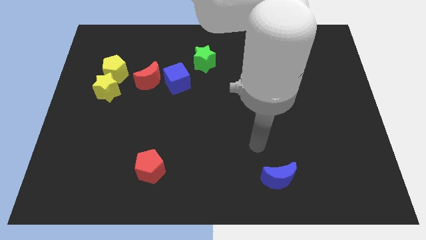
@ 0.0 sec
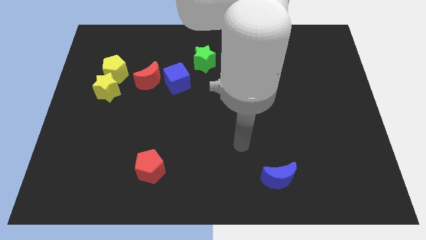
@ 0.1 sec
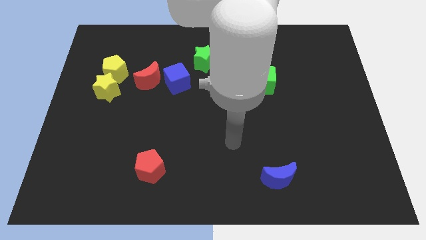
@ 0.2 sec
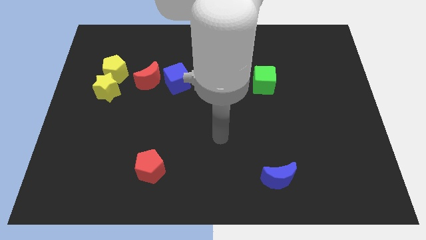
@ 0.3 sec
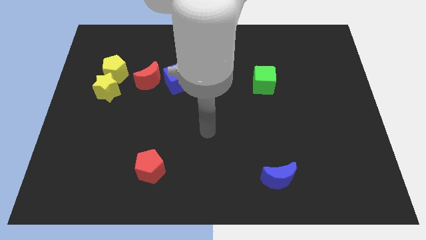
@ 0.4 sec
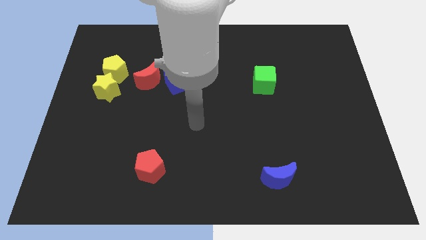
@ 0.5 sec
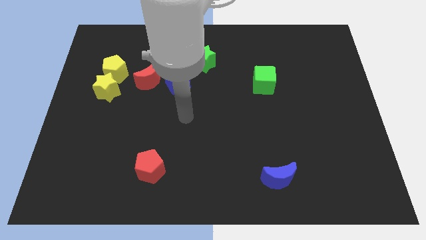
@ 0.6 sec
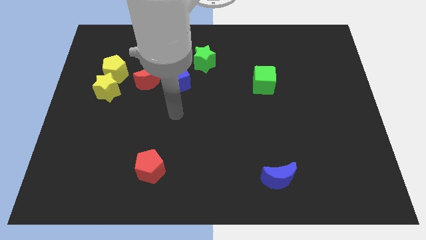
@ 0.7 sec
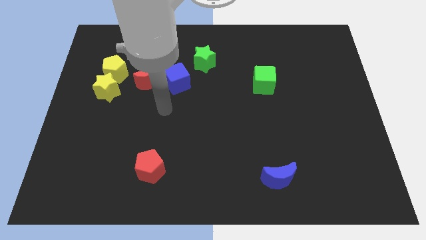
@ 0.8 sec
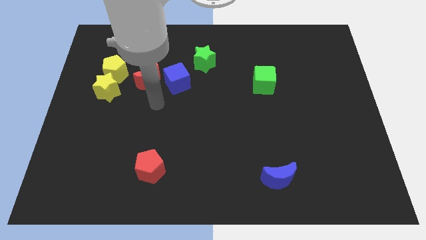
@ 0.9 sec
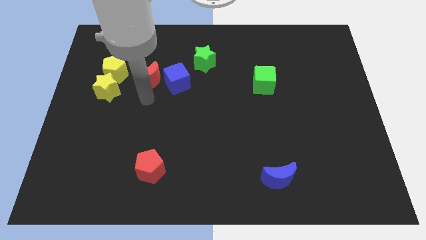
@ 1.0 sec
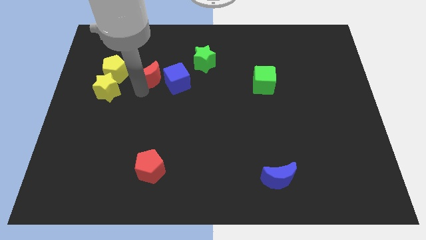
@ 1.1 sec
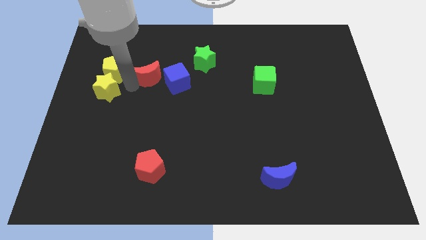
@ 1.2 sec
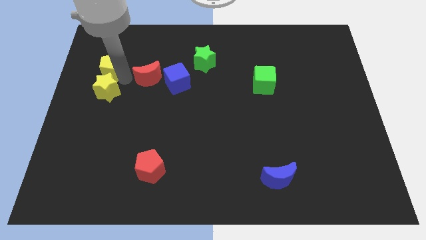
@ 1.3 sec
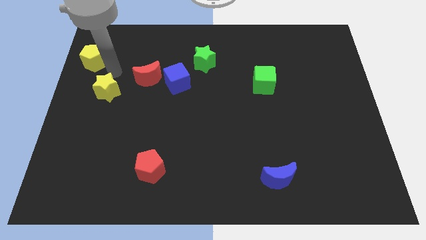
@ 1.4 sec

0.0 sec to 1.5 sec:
move the yellow star away from the yellow pentagon

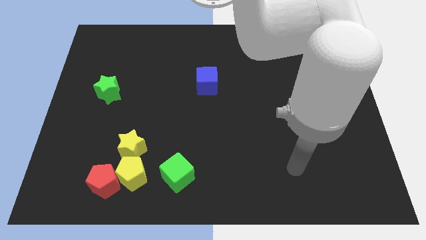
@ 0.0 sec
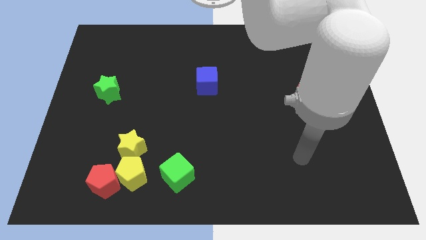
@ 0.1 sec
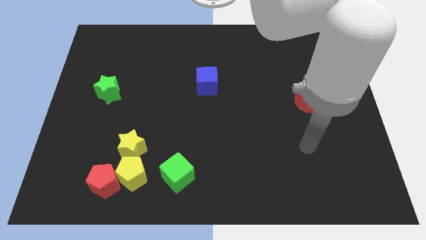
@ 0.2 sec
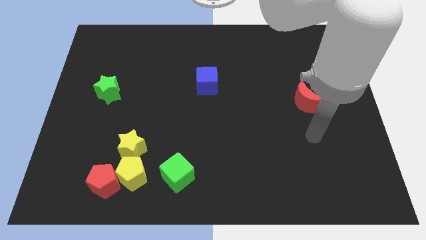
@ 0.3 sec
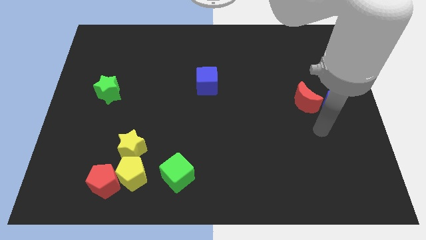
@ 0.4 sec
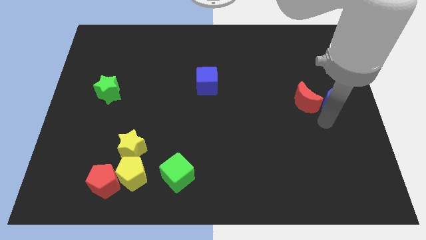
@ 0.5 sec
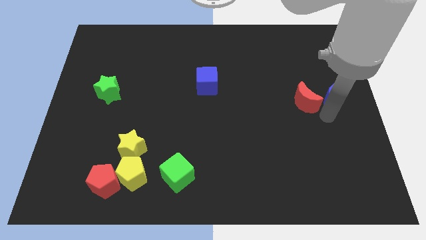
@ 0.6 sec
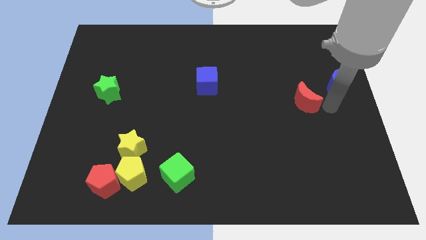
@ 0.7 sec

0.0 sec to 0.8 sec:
move the red moon away from the blue moon

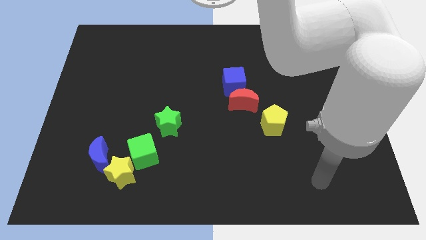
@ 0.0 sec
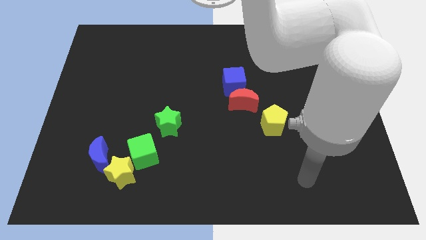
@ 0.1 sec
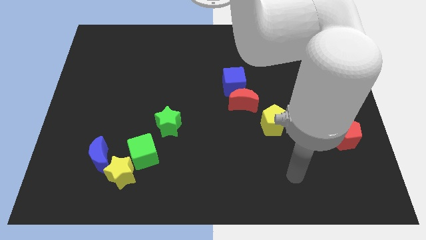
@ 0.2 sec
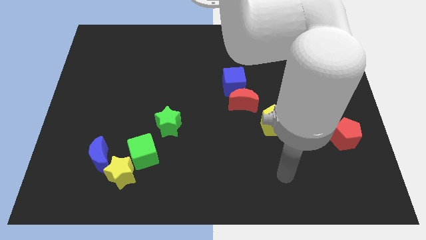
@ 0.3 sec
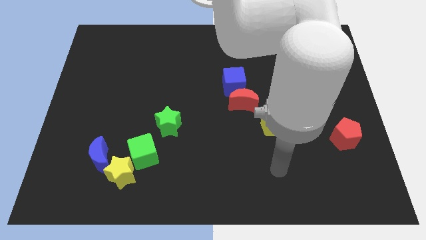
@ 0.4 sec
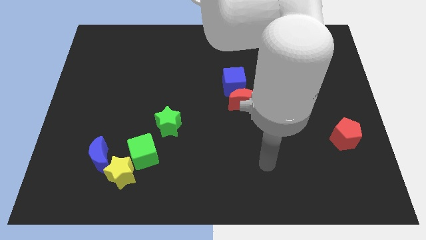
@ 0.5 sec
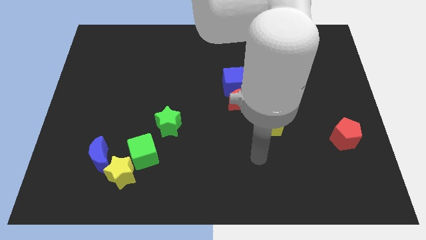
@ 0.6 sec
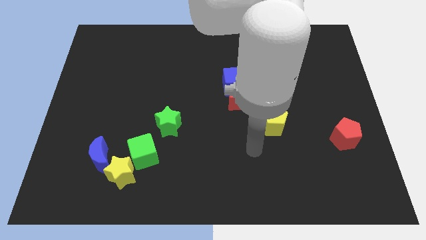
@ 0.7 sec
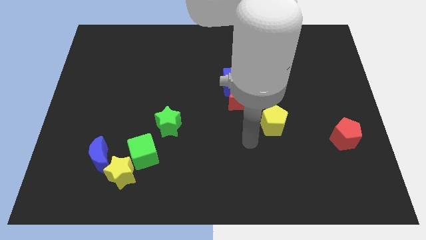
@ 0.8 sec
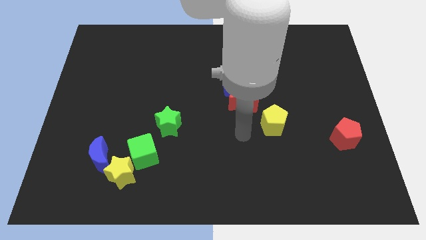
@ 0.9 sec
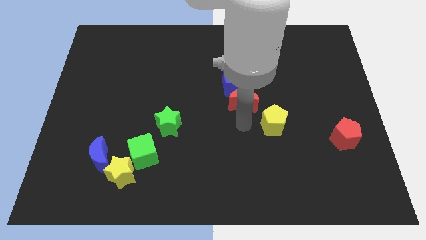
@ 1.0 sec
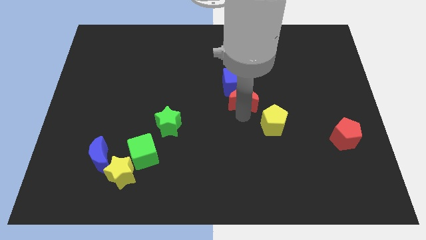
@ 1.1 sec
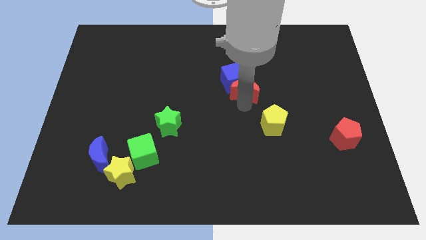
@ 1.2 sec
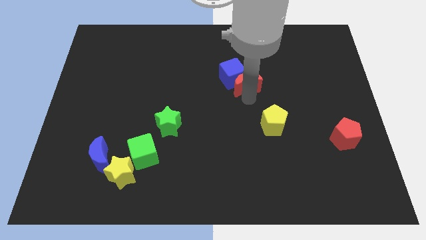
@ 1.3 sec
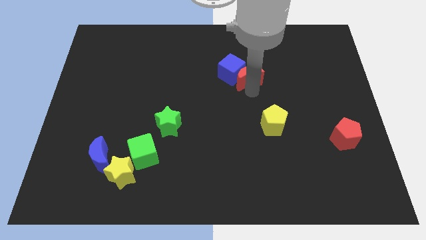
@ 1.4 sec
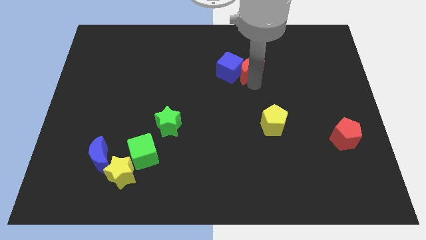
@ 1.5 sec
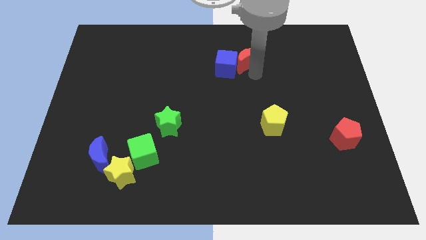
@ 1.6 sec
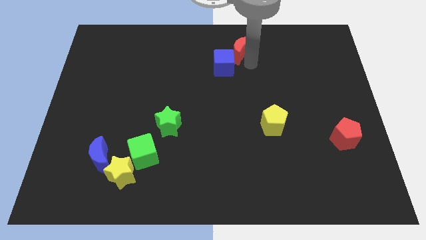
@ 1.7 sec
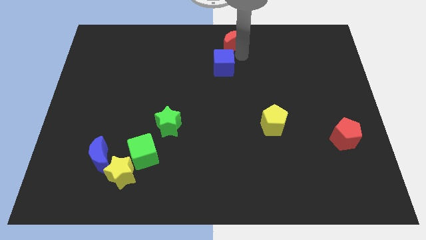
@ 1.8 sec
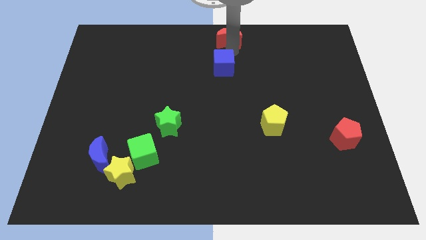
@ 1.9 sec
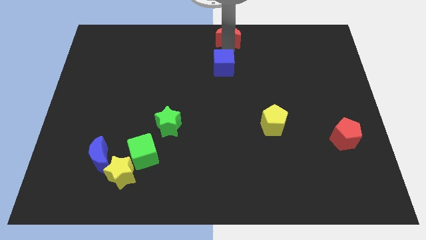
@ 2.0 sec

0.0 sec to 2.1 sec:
separate the blue cube from the red moon

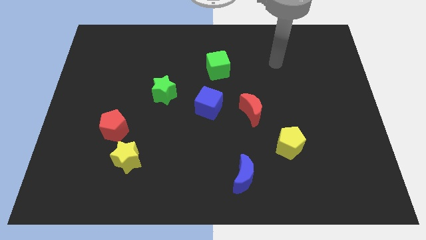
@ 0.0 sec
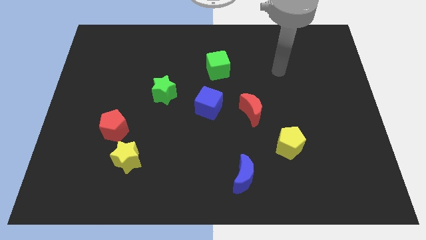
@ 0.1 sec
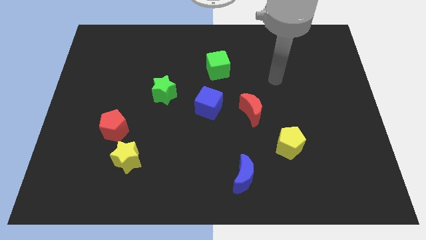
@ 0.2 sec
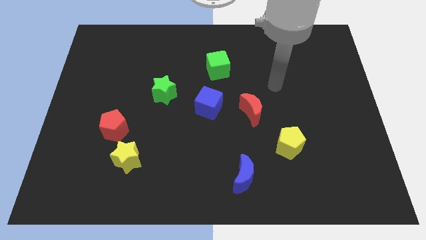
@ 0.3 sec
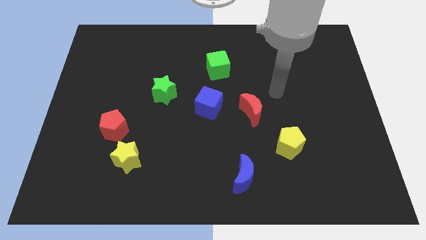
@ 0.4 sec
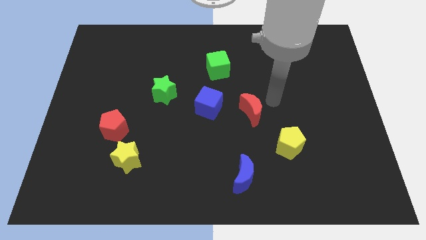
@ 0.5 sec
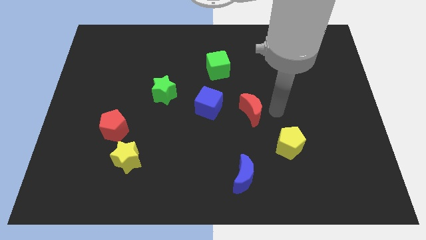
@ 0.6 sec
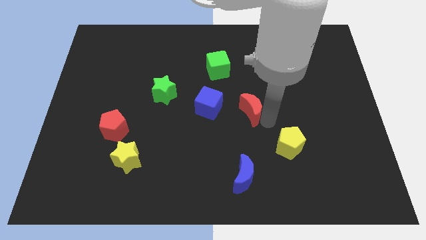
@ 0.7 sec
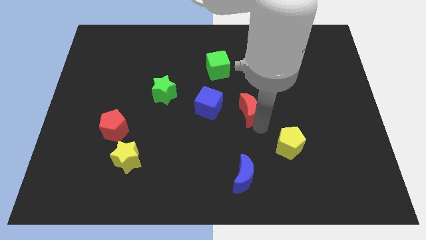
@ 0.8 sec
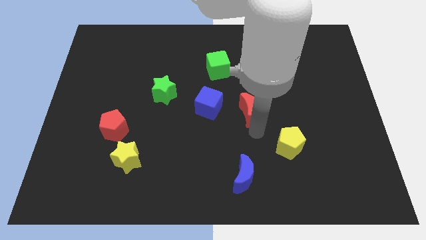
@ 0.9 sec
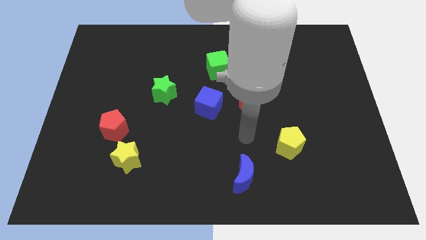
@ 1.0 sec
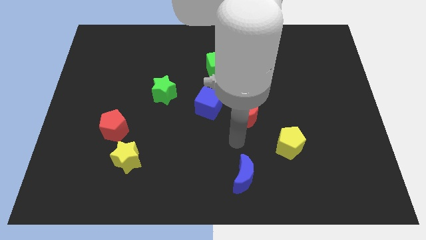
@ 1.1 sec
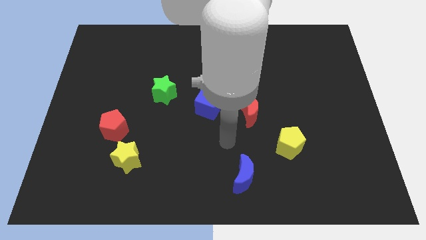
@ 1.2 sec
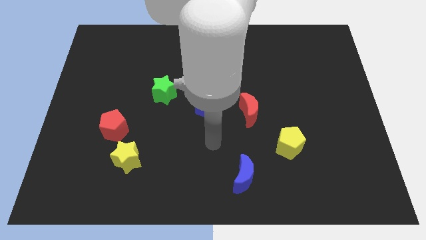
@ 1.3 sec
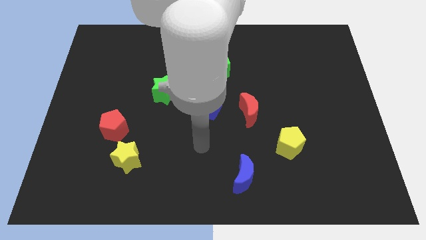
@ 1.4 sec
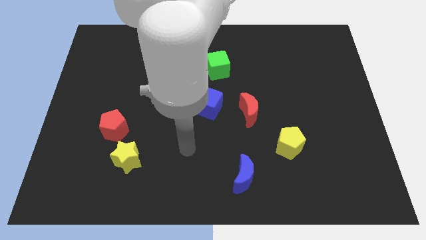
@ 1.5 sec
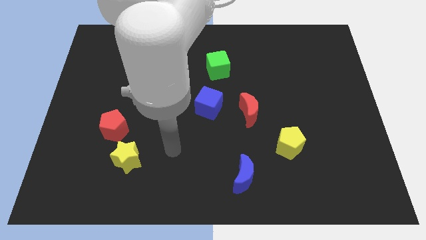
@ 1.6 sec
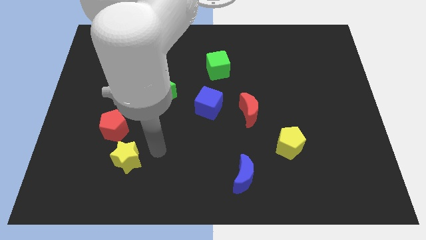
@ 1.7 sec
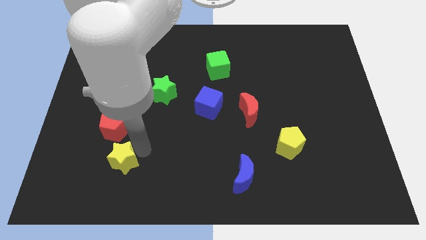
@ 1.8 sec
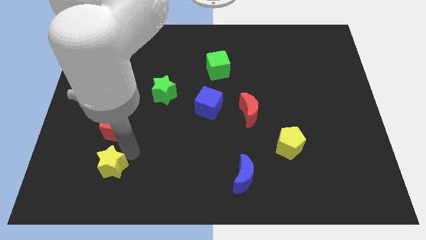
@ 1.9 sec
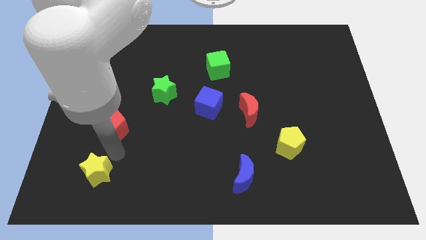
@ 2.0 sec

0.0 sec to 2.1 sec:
move the red pentagon away from the yellow star

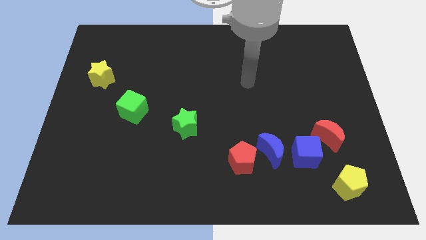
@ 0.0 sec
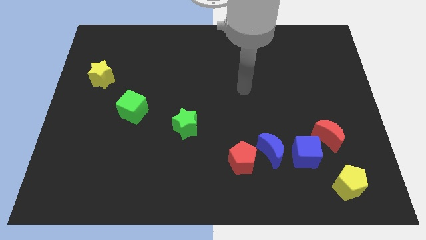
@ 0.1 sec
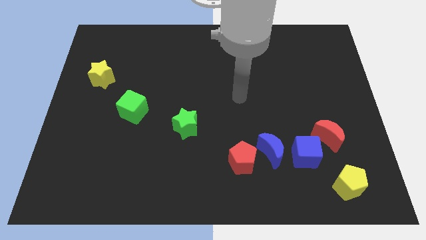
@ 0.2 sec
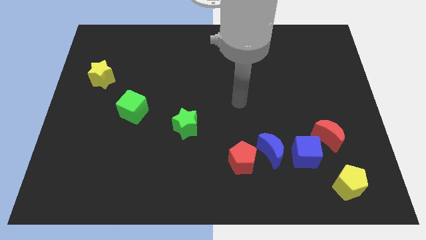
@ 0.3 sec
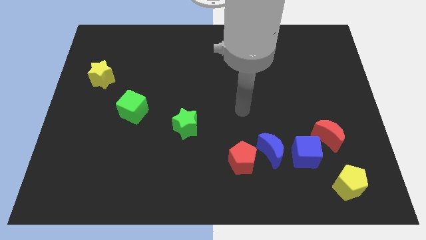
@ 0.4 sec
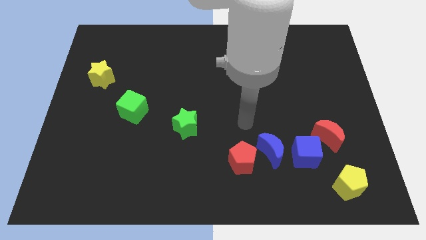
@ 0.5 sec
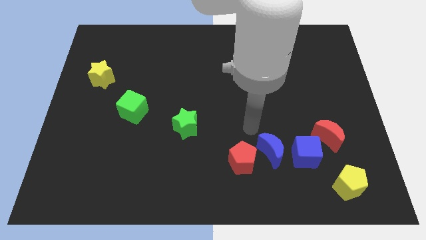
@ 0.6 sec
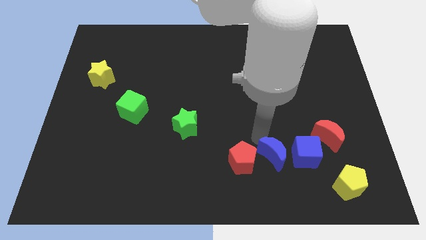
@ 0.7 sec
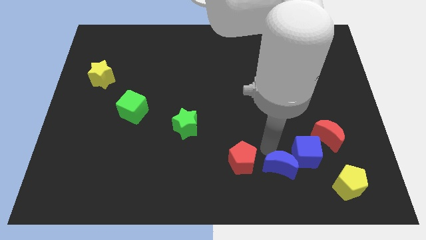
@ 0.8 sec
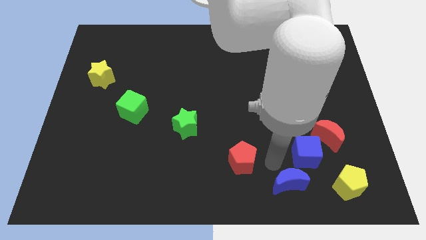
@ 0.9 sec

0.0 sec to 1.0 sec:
pull the red pentagon apart from the blue moon

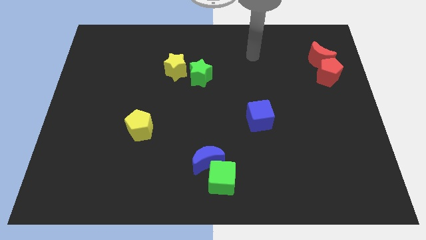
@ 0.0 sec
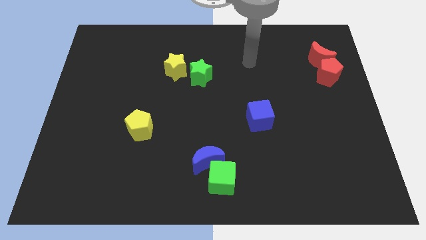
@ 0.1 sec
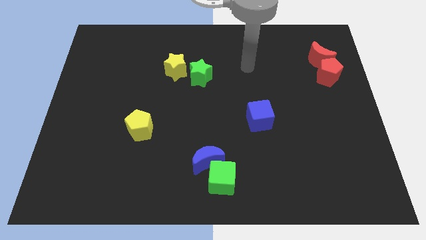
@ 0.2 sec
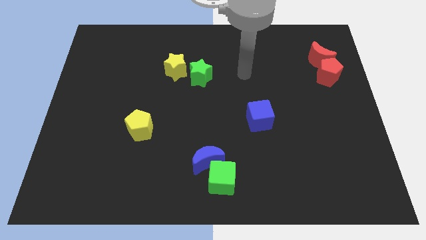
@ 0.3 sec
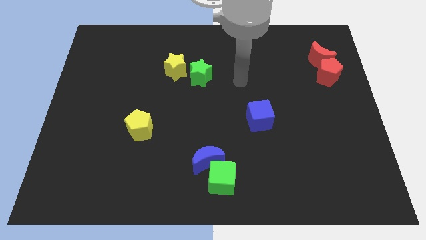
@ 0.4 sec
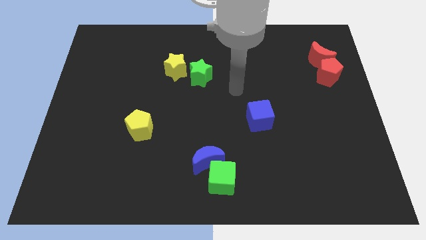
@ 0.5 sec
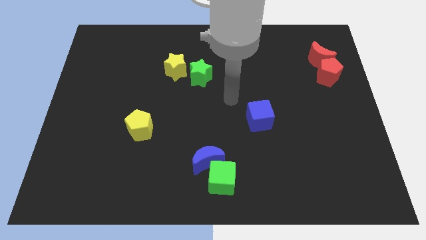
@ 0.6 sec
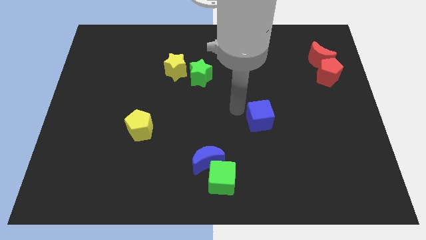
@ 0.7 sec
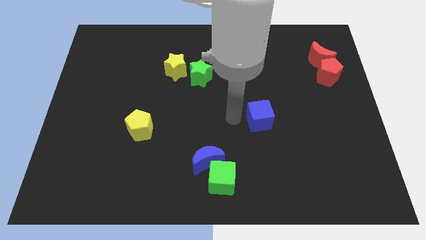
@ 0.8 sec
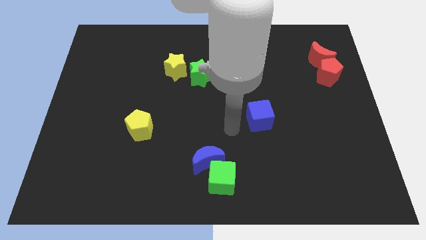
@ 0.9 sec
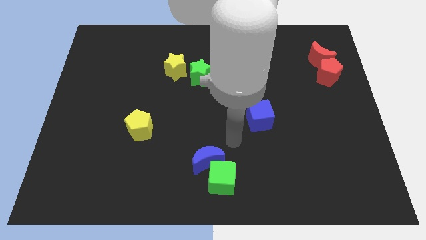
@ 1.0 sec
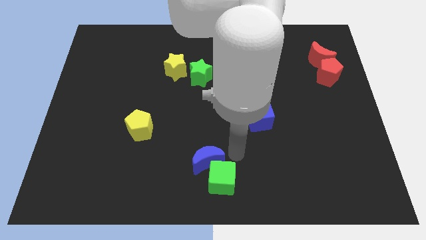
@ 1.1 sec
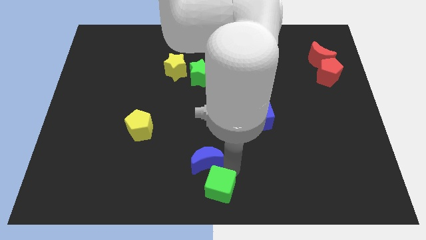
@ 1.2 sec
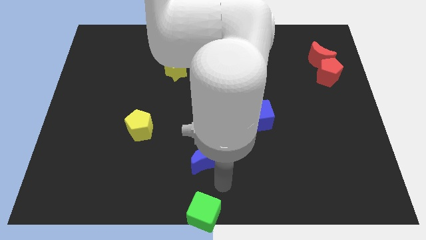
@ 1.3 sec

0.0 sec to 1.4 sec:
separate the blue moon from the green cube

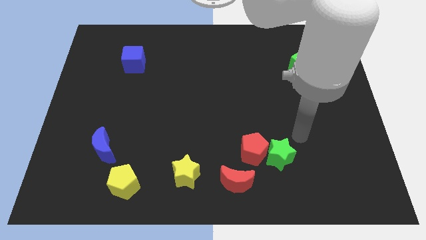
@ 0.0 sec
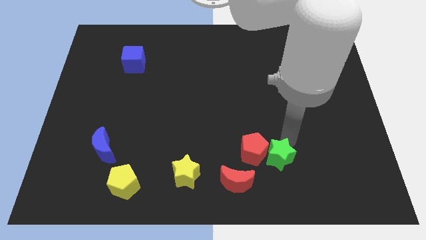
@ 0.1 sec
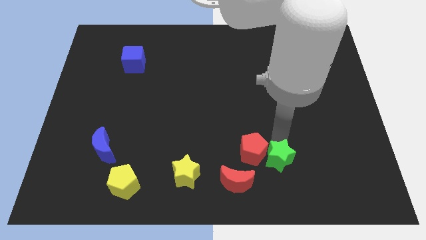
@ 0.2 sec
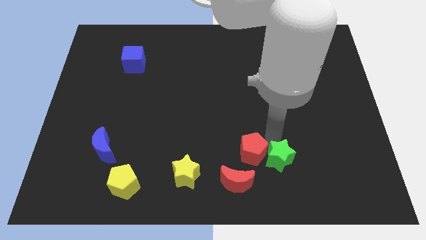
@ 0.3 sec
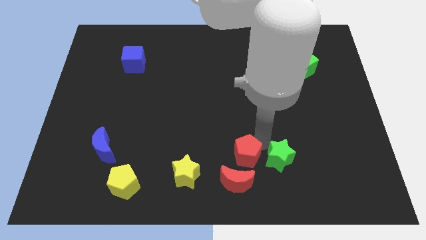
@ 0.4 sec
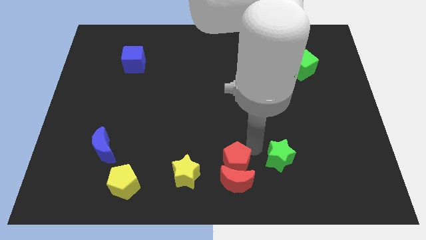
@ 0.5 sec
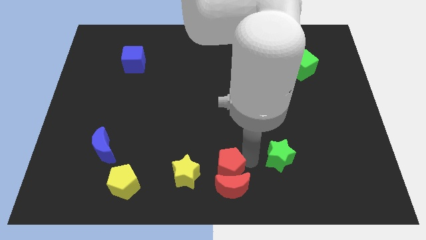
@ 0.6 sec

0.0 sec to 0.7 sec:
pull the green star apart from the red pentagon
